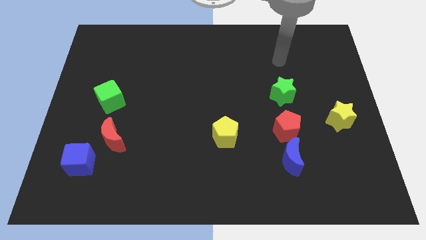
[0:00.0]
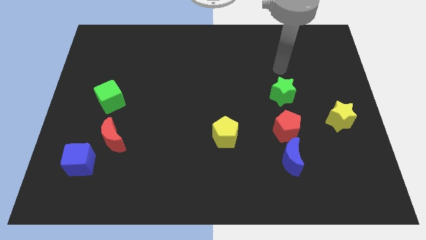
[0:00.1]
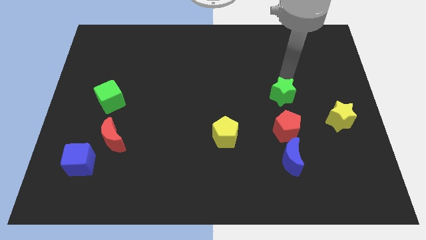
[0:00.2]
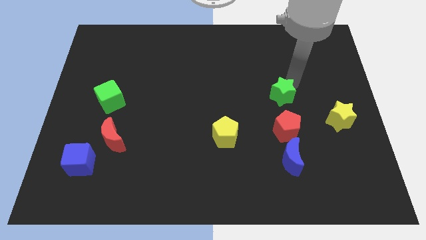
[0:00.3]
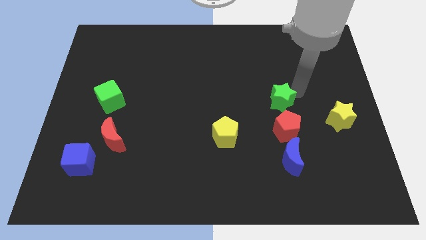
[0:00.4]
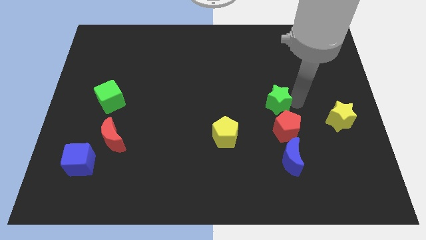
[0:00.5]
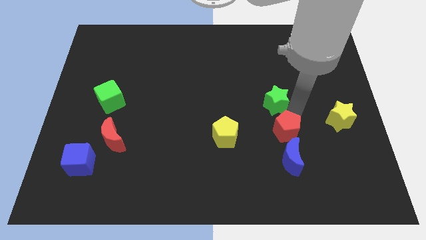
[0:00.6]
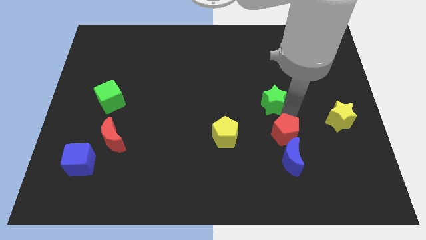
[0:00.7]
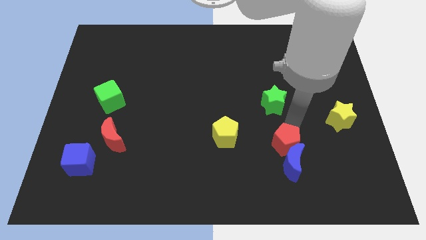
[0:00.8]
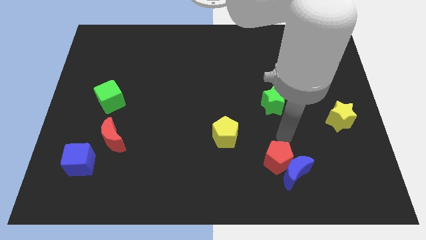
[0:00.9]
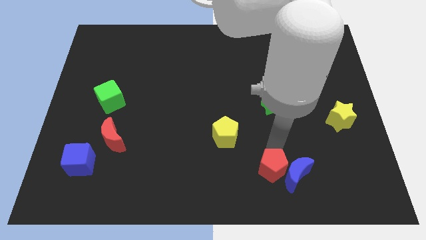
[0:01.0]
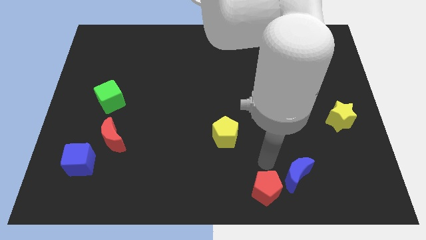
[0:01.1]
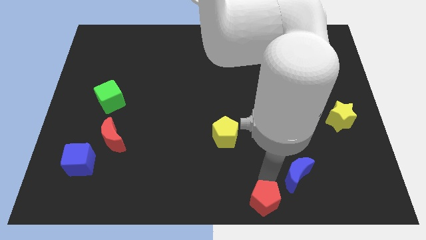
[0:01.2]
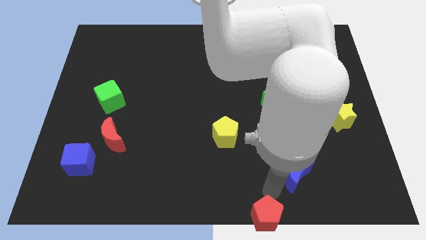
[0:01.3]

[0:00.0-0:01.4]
move the blue moon away from the red pentagon

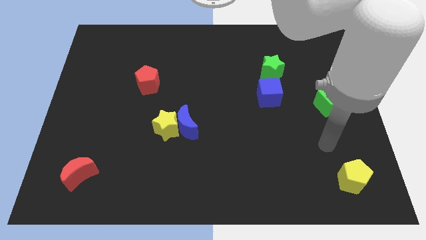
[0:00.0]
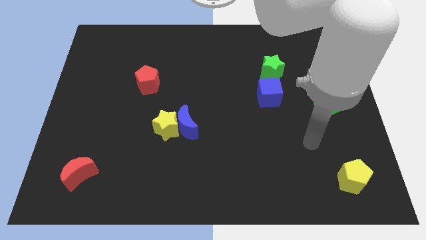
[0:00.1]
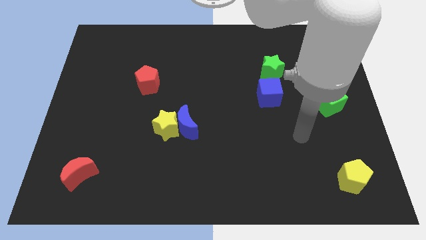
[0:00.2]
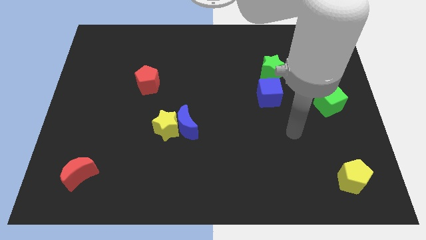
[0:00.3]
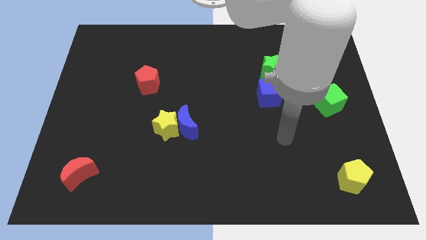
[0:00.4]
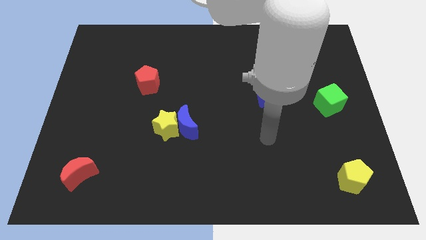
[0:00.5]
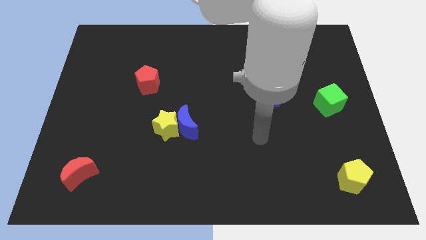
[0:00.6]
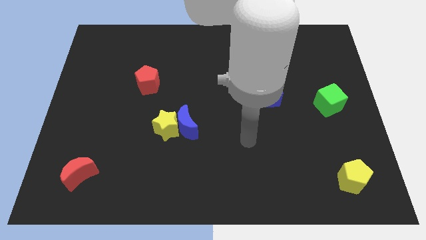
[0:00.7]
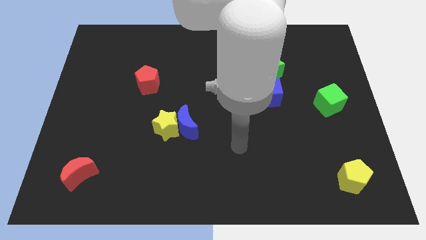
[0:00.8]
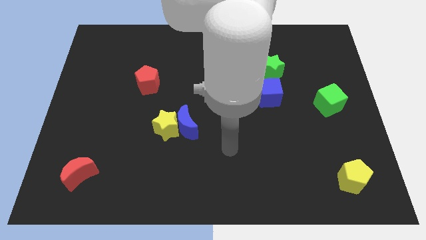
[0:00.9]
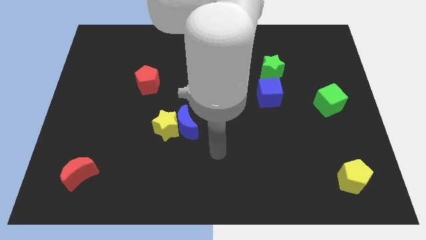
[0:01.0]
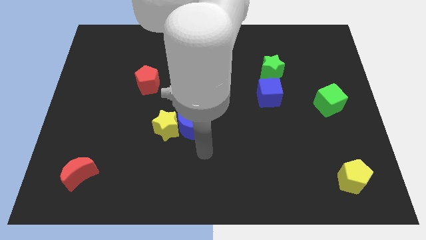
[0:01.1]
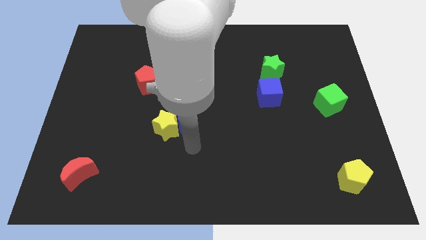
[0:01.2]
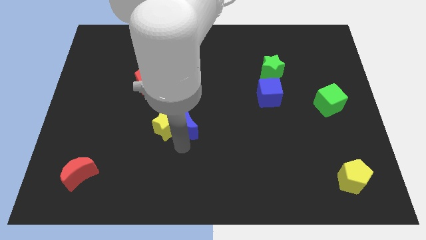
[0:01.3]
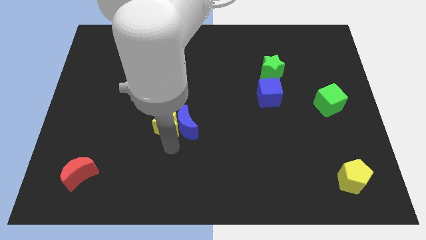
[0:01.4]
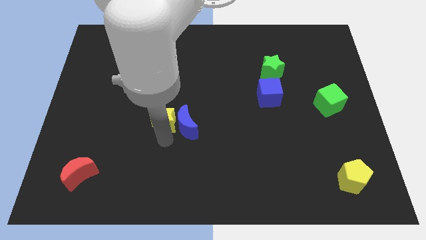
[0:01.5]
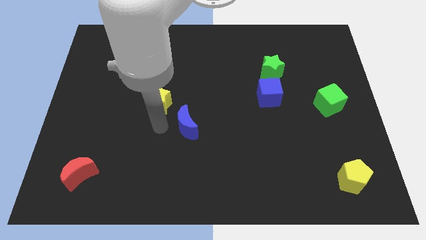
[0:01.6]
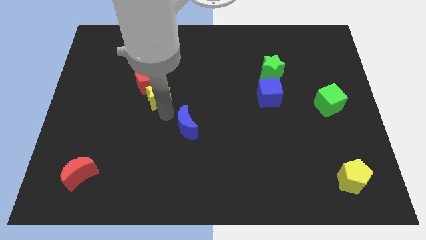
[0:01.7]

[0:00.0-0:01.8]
separate the blue moon from the yellow star

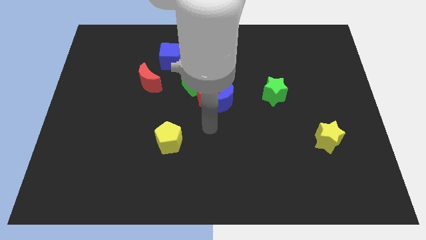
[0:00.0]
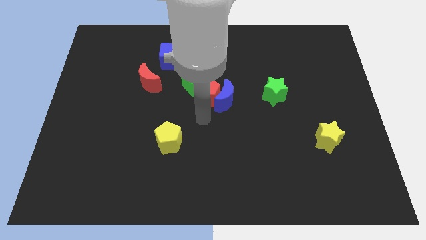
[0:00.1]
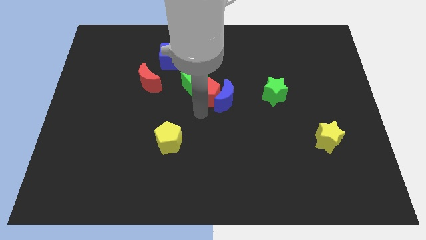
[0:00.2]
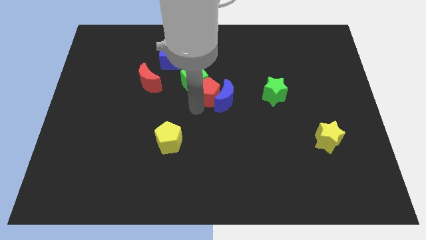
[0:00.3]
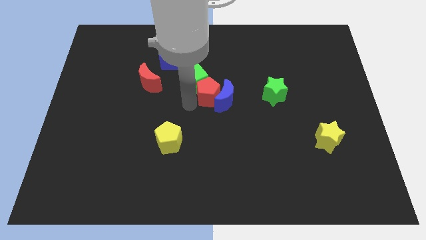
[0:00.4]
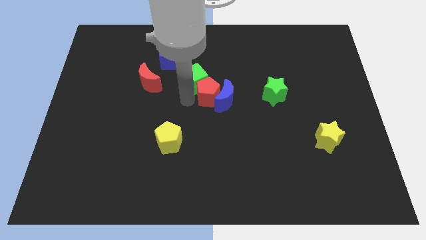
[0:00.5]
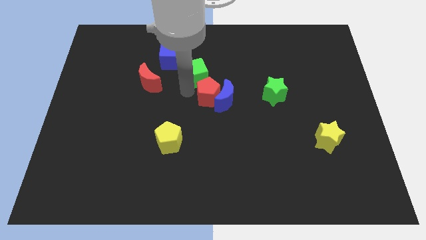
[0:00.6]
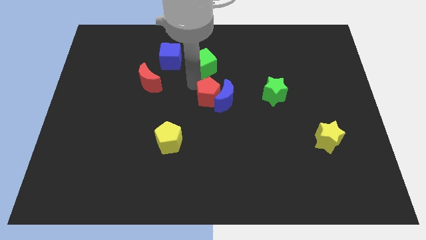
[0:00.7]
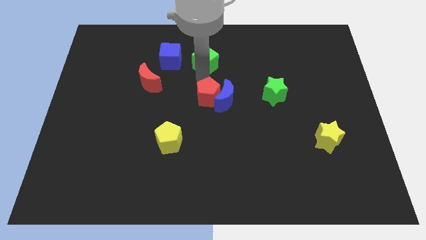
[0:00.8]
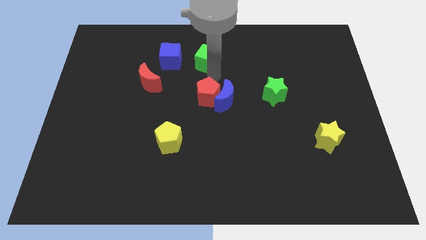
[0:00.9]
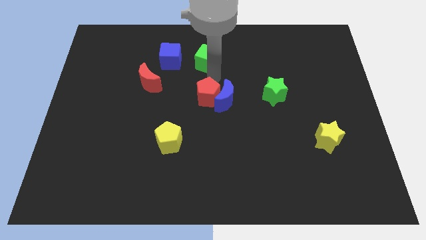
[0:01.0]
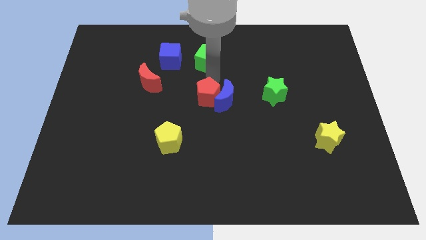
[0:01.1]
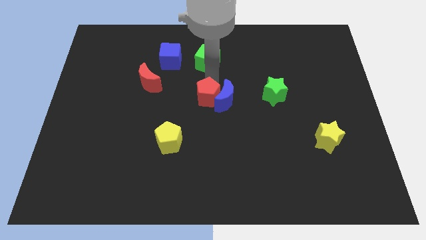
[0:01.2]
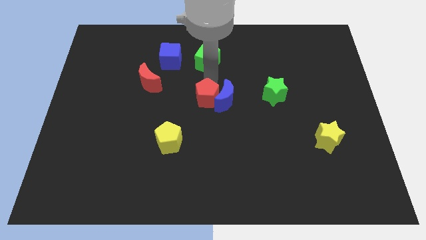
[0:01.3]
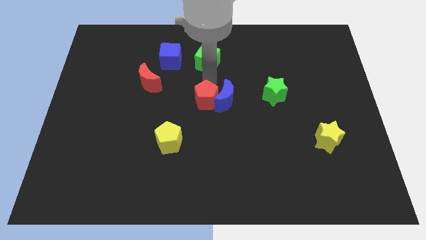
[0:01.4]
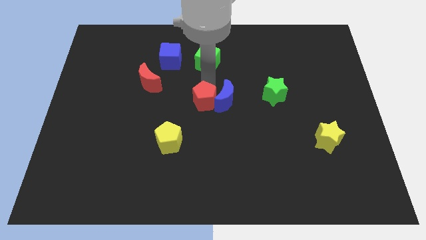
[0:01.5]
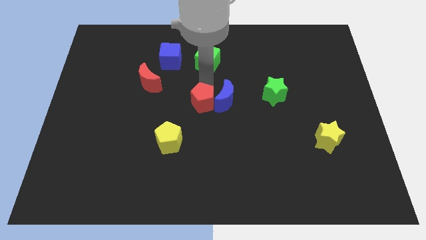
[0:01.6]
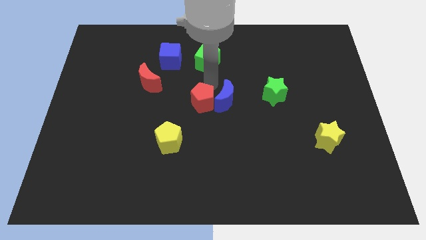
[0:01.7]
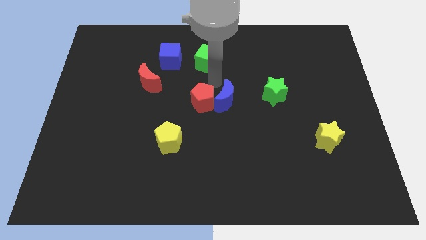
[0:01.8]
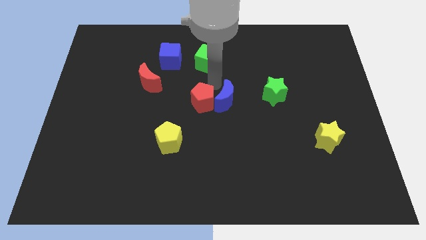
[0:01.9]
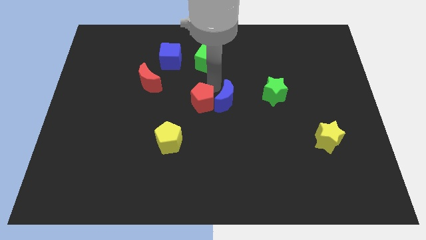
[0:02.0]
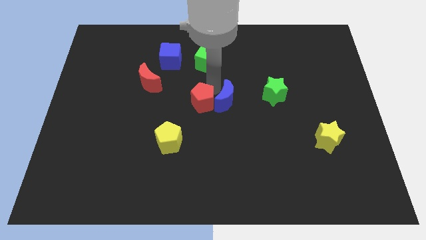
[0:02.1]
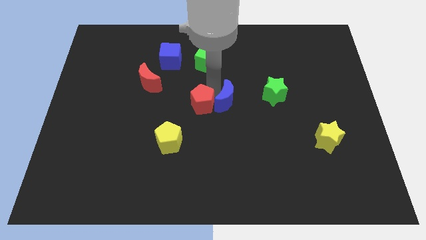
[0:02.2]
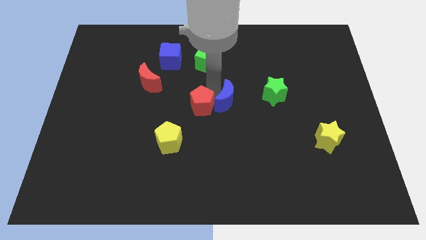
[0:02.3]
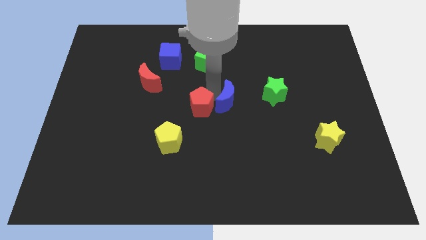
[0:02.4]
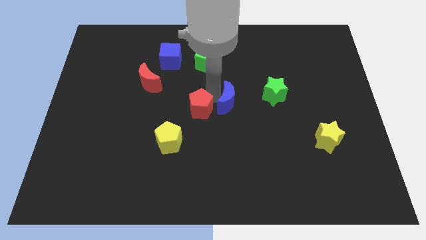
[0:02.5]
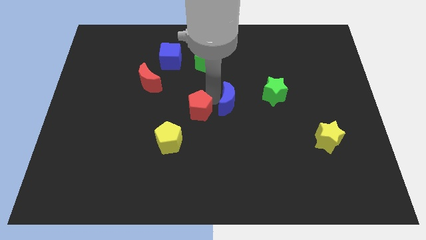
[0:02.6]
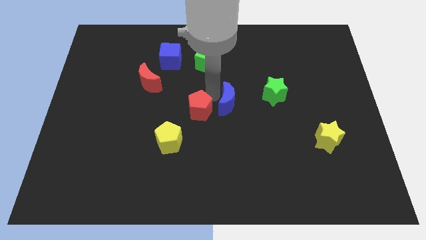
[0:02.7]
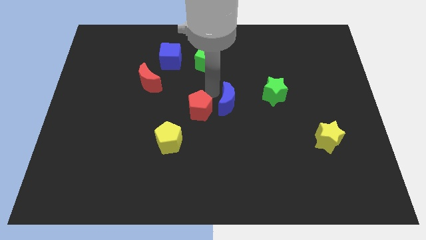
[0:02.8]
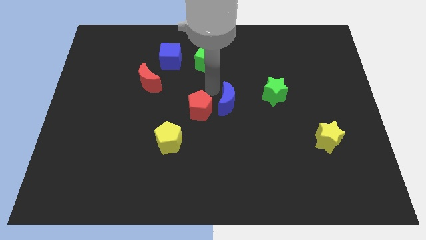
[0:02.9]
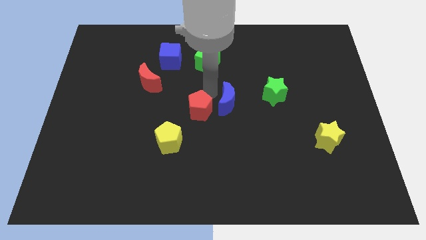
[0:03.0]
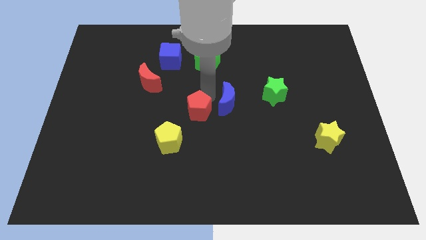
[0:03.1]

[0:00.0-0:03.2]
pull the red pentagon apart from the blue moon and green cube

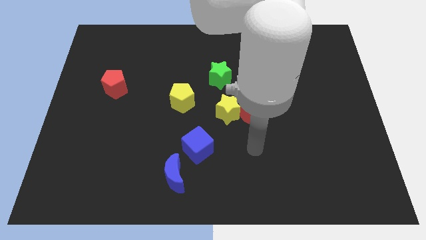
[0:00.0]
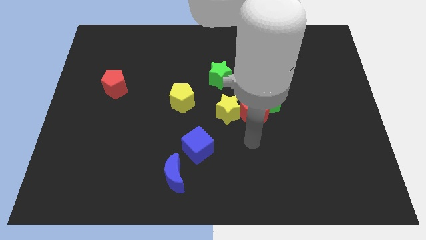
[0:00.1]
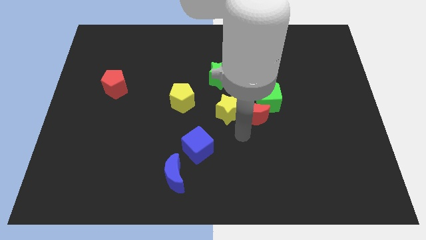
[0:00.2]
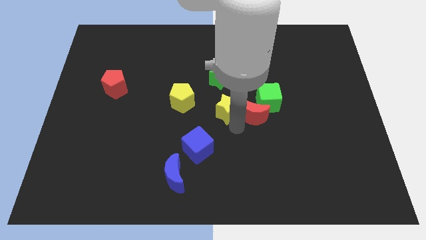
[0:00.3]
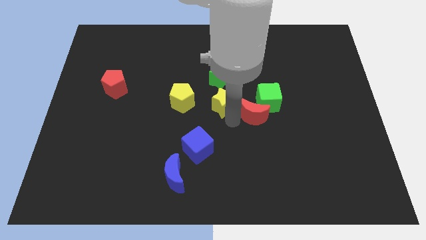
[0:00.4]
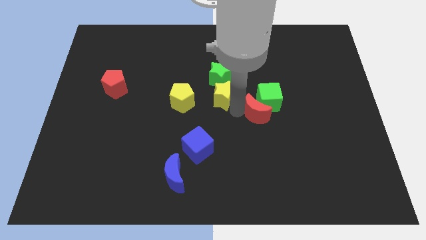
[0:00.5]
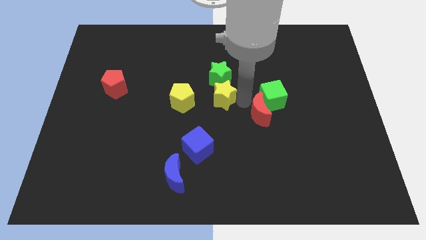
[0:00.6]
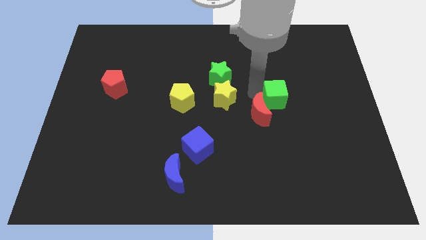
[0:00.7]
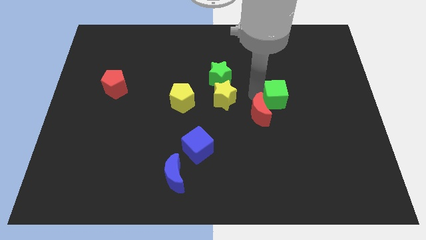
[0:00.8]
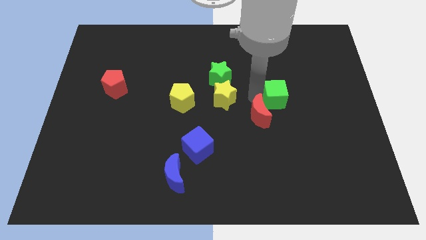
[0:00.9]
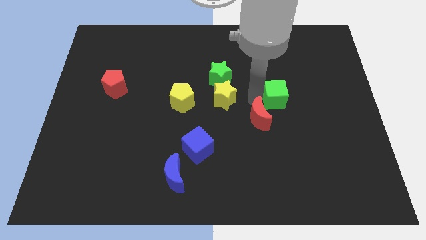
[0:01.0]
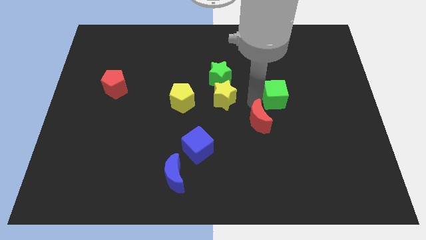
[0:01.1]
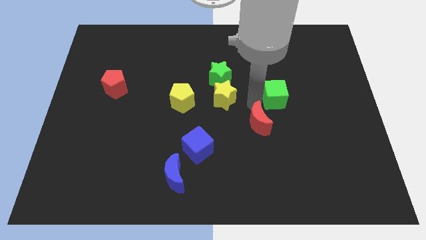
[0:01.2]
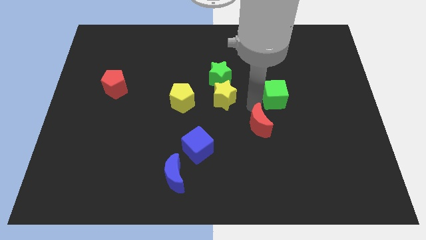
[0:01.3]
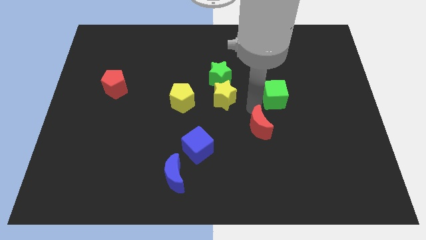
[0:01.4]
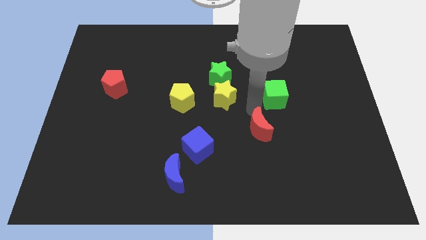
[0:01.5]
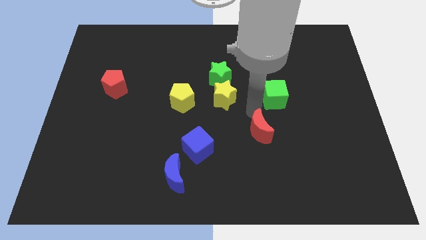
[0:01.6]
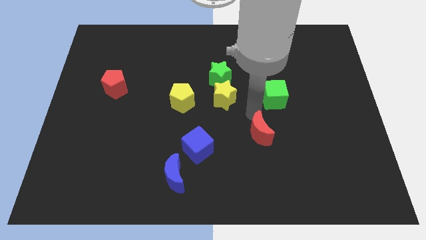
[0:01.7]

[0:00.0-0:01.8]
move the red moon away from the yellow star and green cube

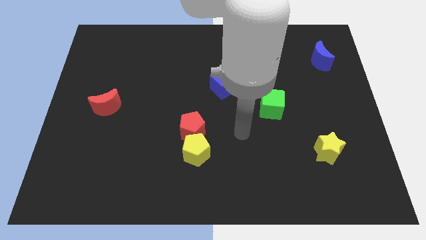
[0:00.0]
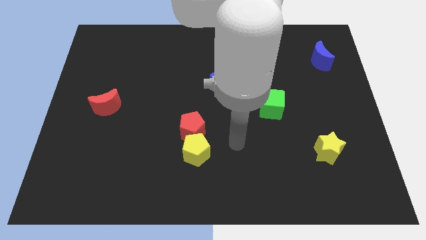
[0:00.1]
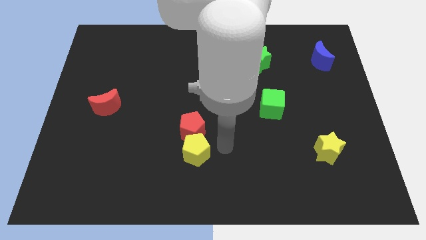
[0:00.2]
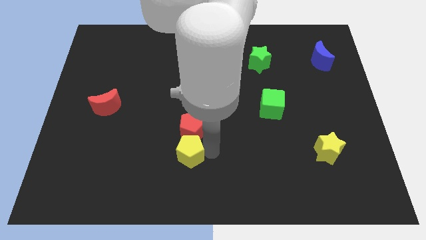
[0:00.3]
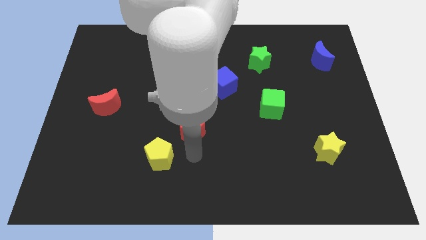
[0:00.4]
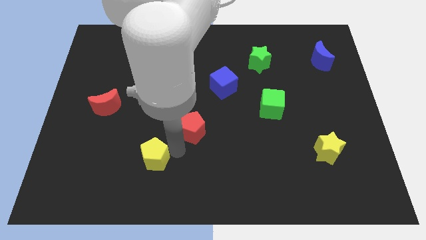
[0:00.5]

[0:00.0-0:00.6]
pull the red pentagon apart from the yellow pentagon

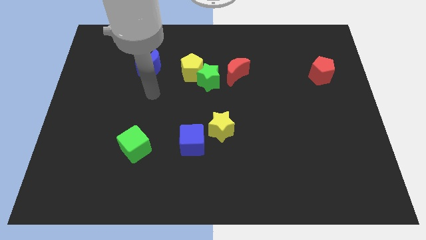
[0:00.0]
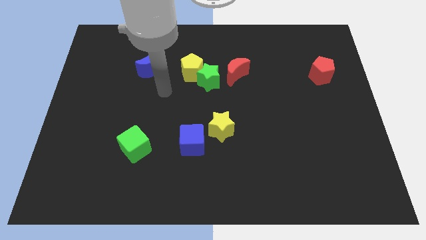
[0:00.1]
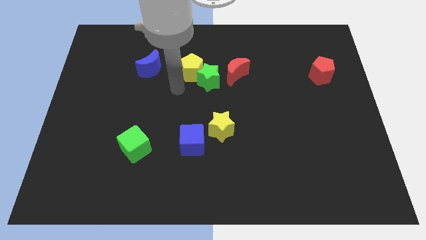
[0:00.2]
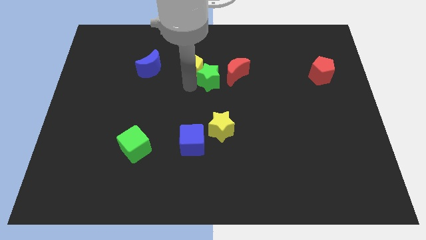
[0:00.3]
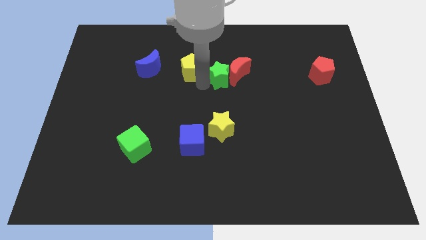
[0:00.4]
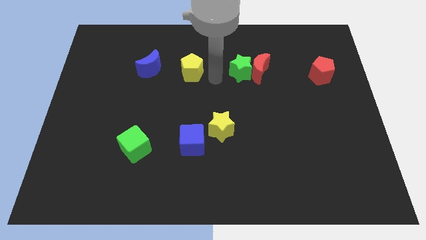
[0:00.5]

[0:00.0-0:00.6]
pull the yellow pentagon apart from the green star
